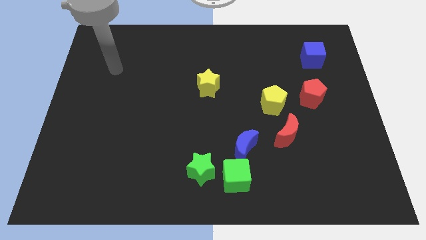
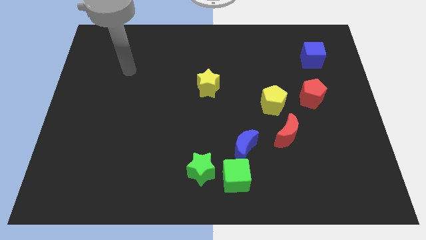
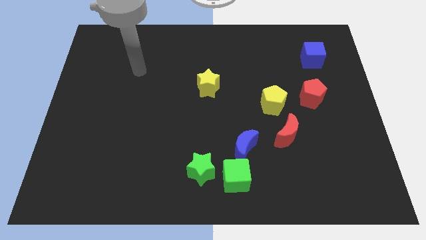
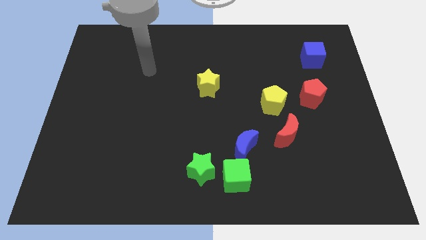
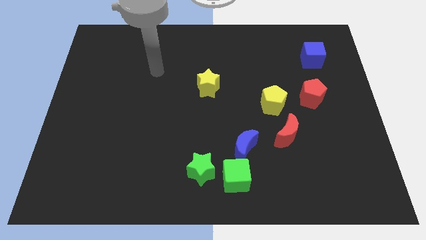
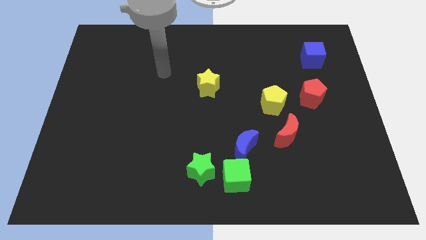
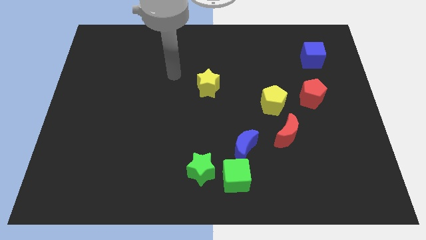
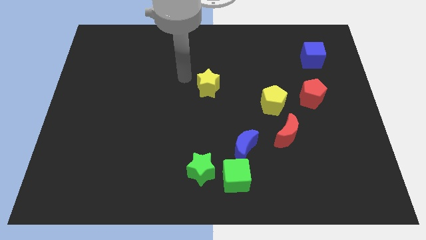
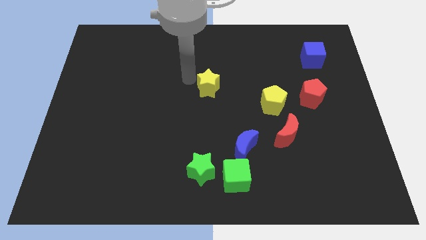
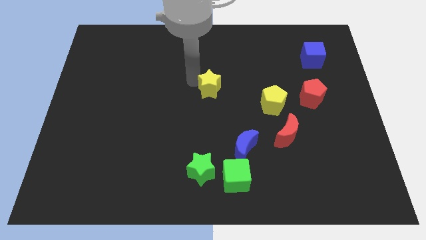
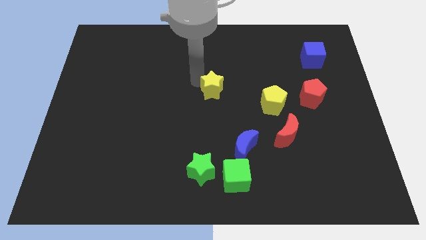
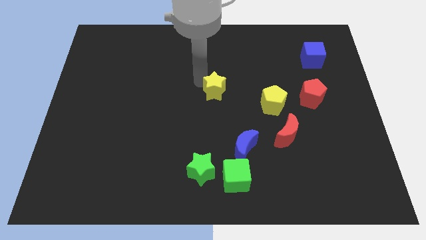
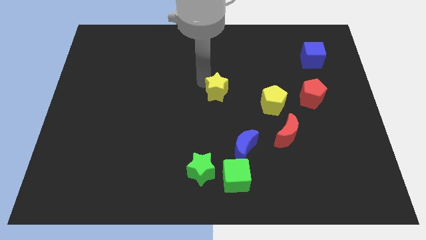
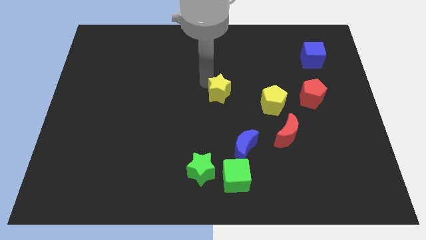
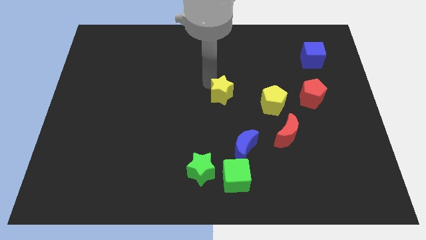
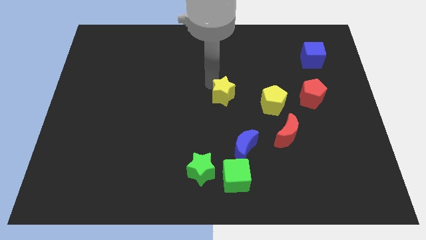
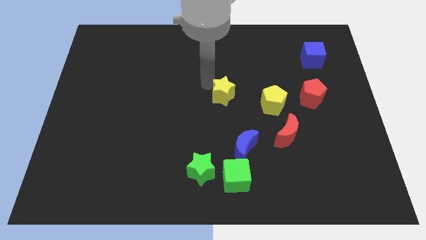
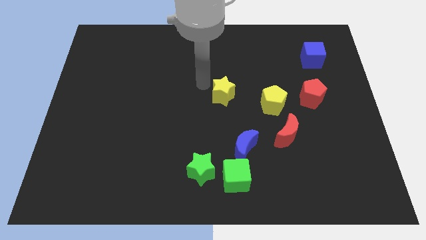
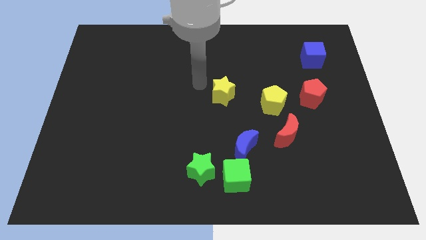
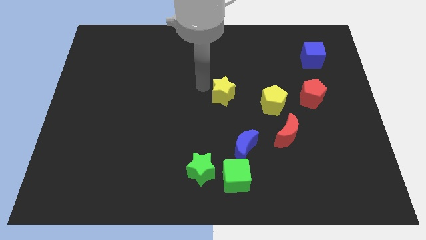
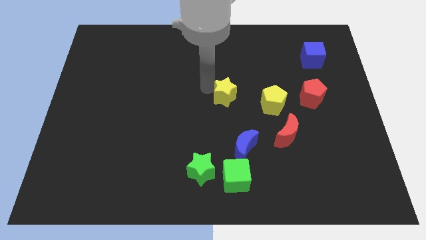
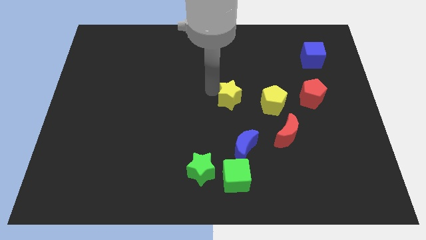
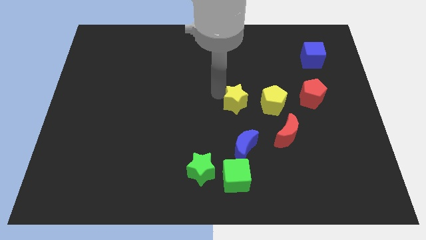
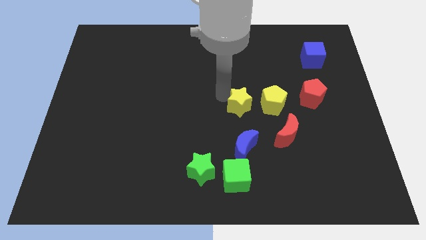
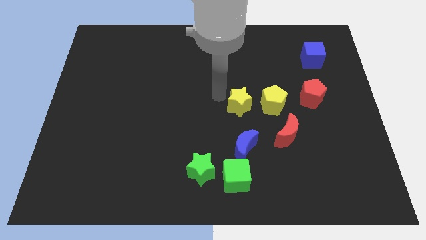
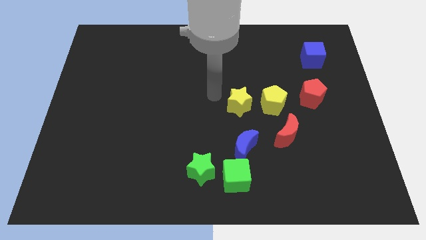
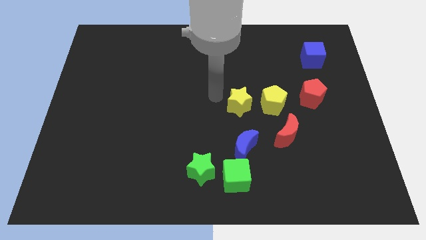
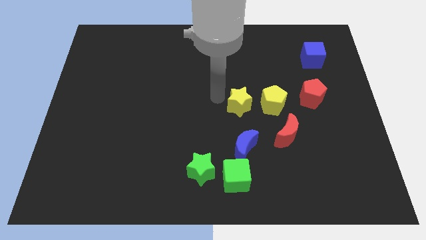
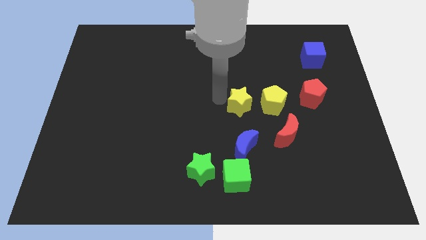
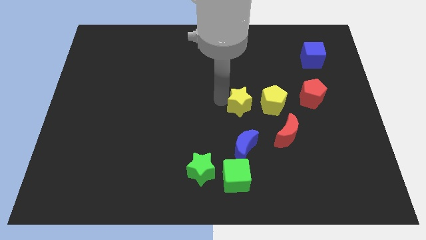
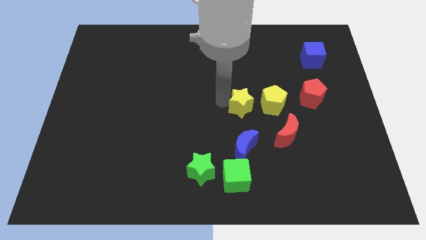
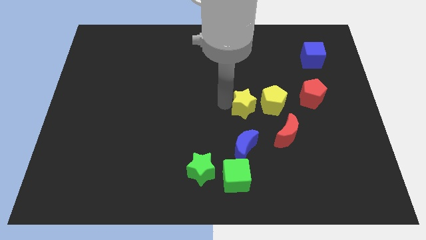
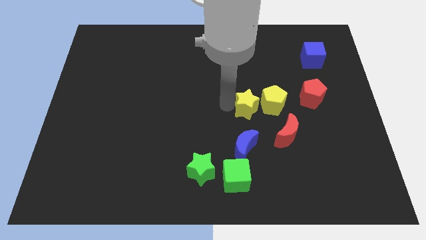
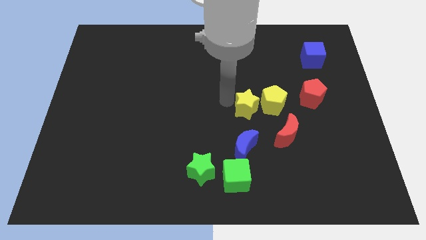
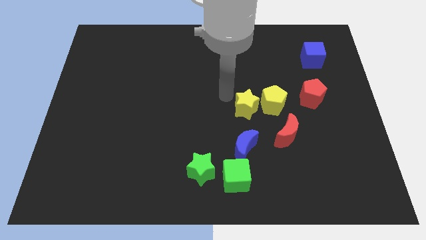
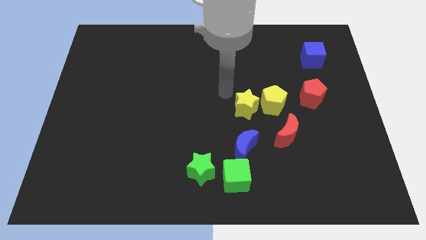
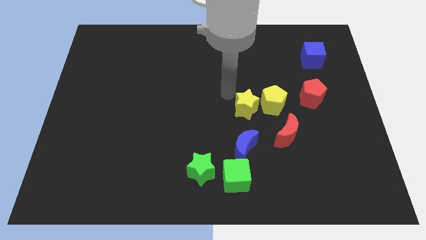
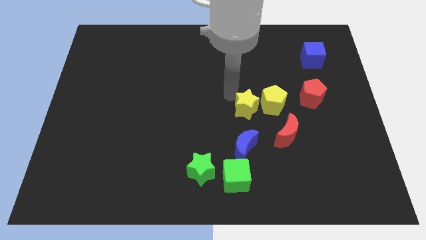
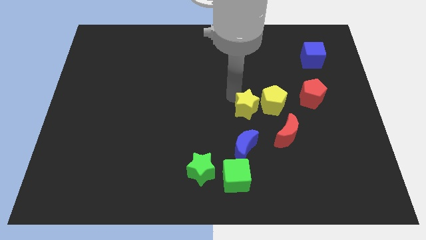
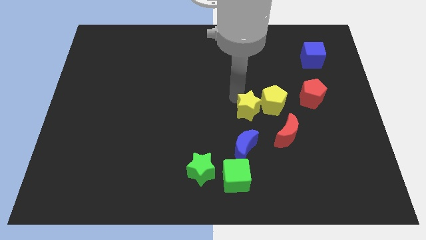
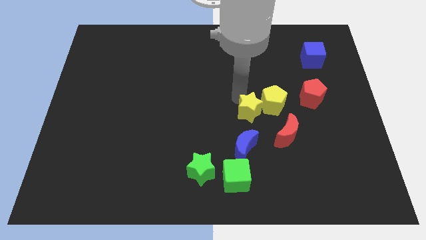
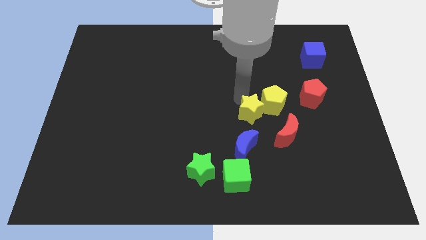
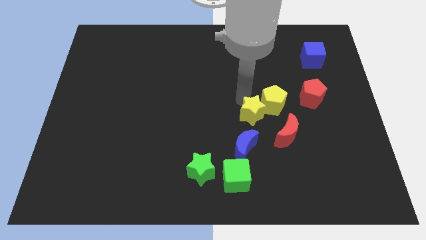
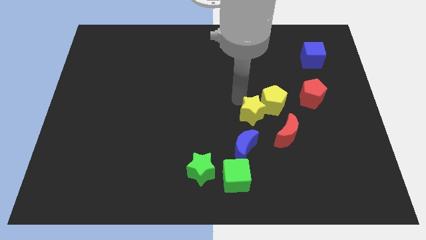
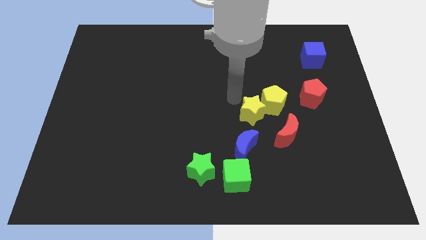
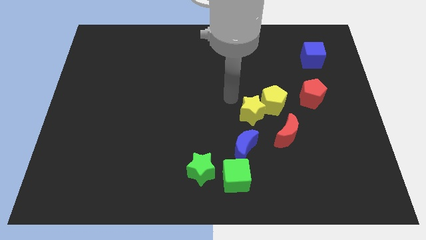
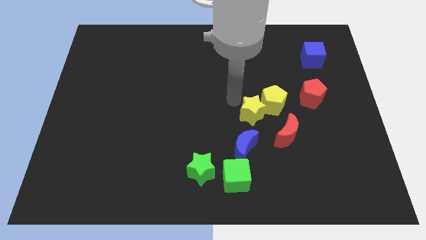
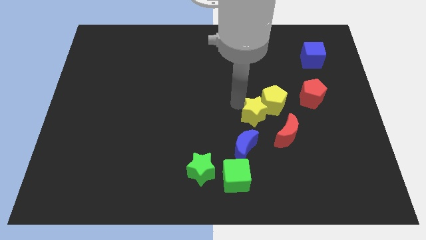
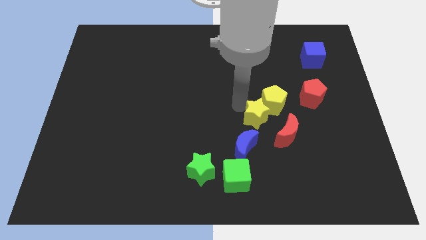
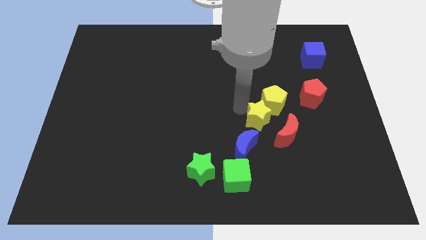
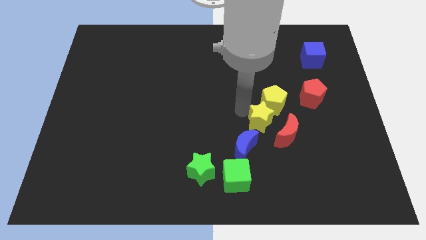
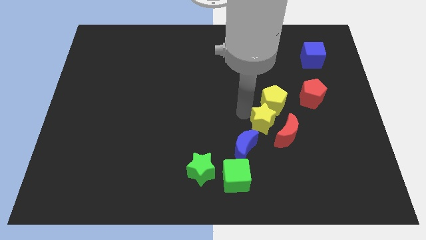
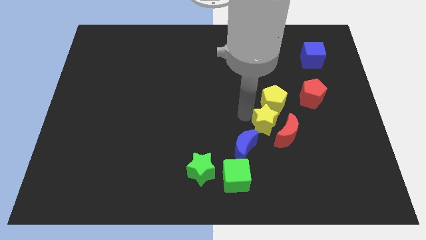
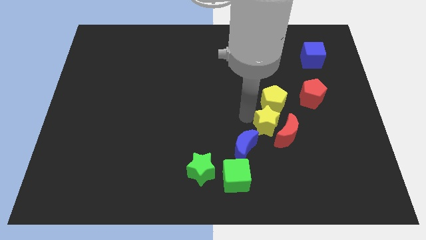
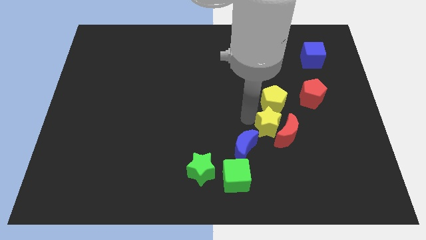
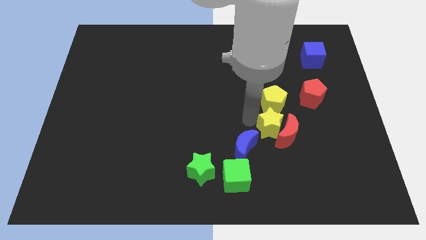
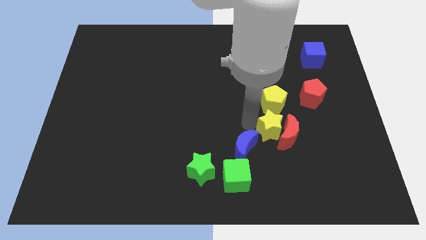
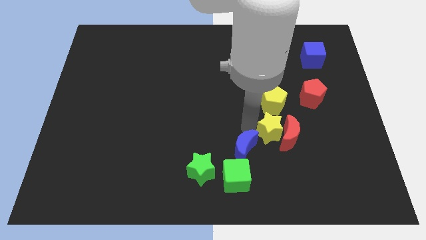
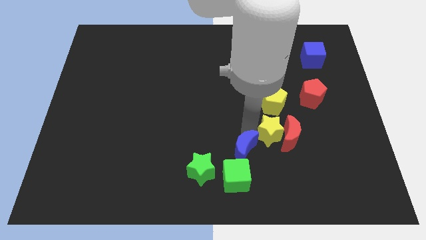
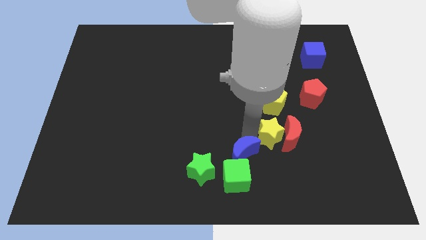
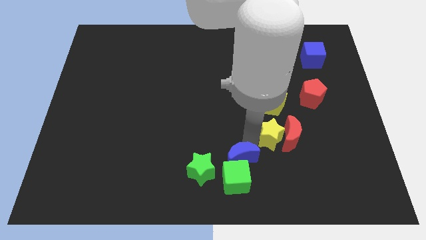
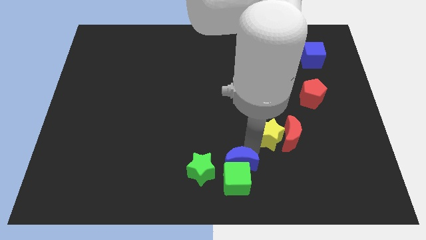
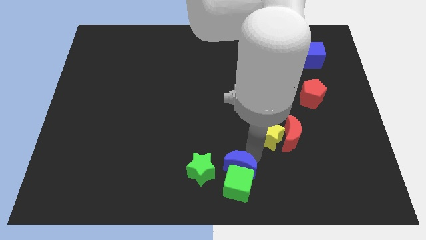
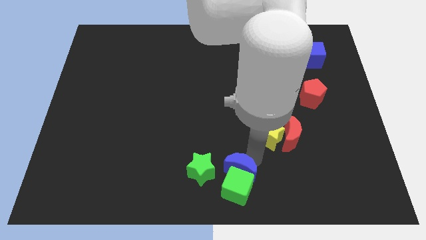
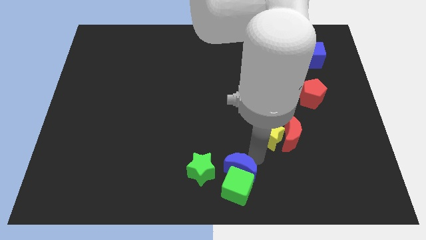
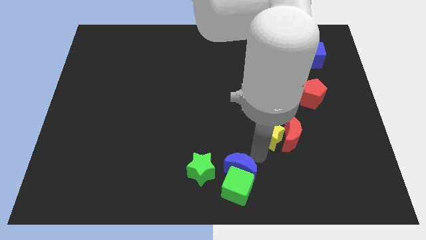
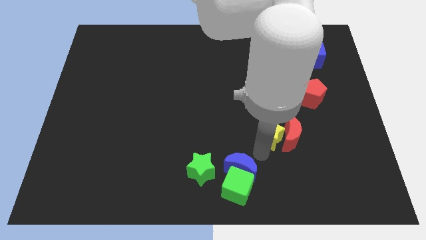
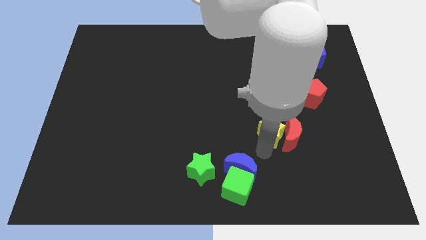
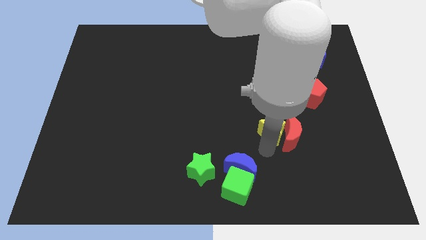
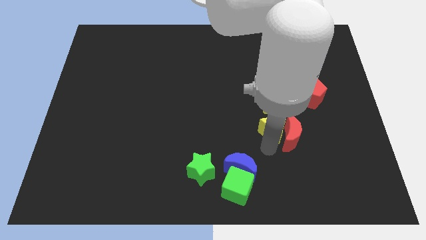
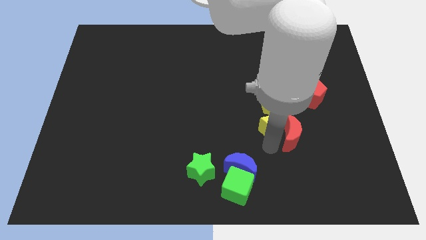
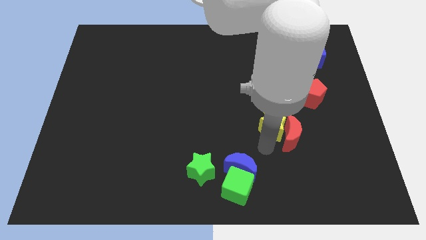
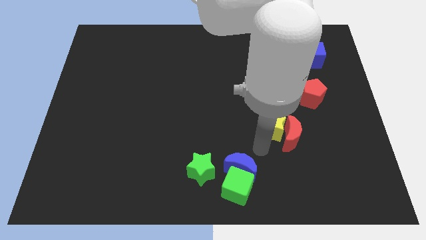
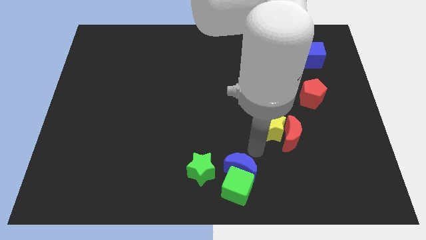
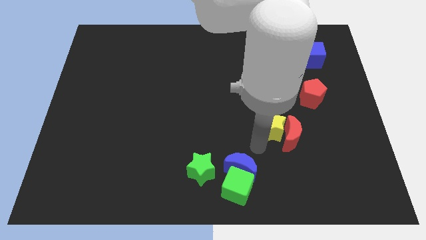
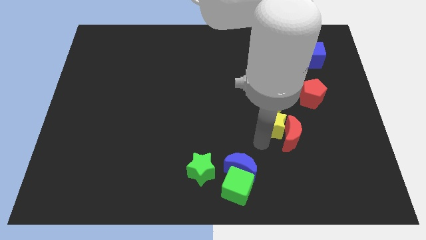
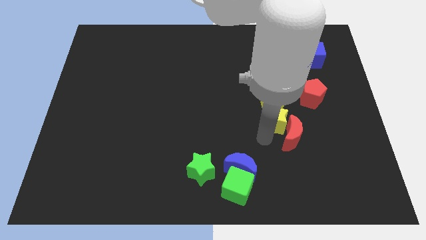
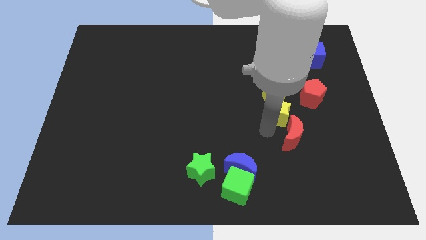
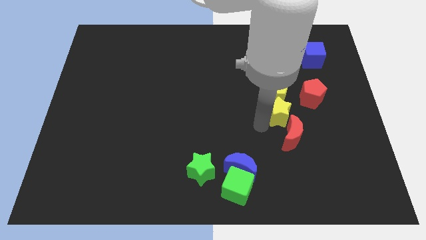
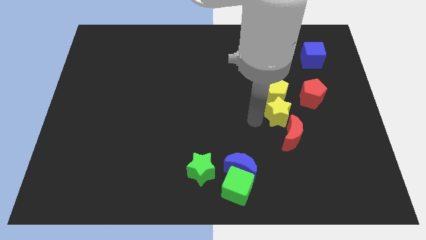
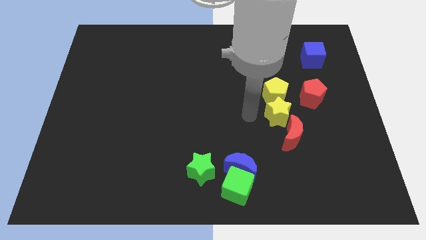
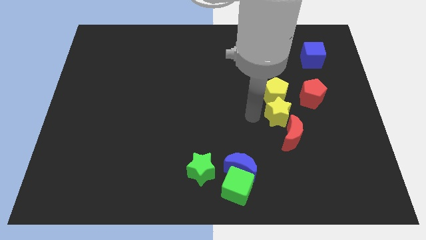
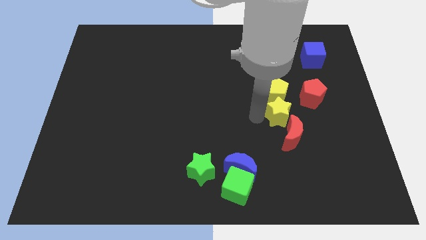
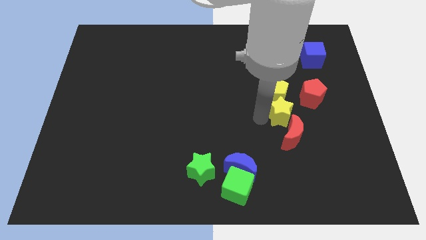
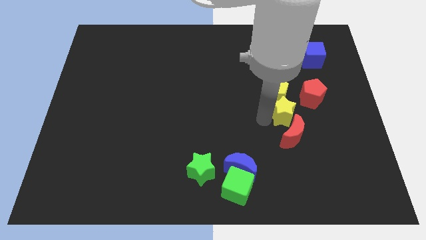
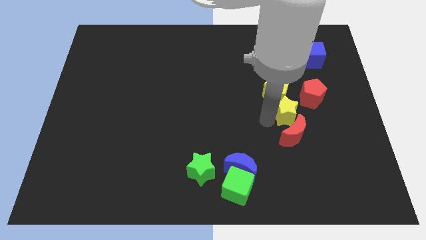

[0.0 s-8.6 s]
move the yellow star to the top right of the red moon
